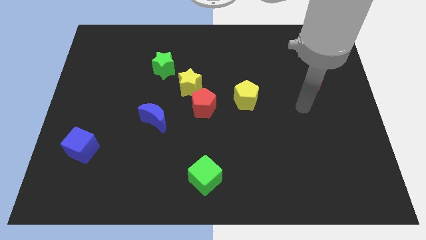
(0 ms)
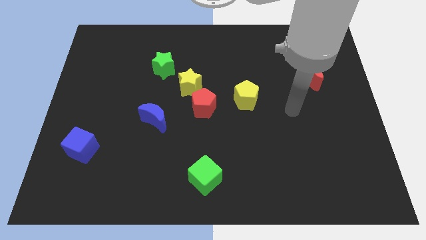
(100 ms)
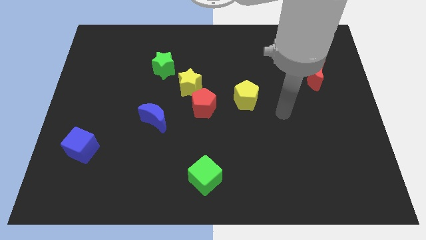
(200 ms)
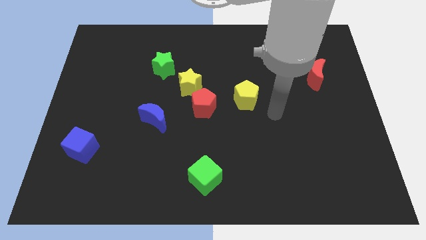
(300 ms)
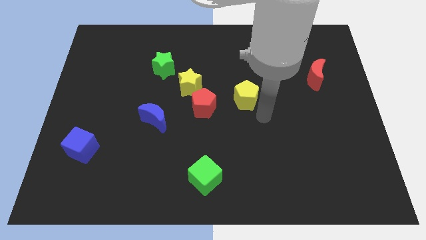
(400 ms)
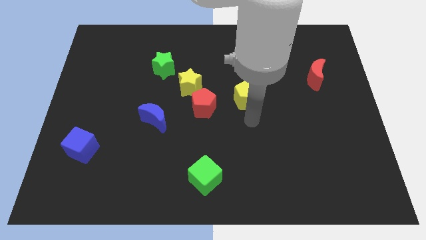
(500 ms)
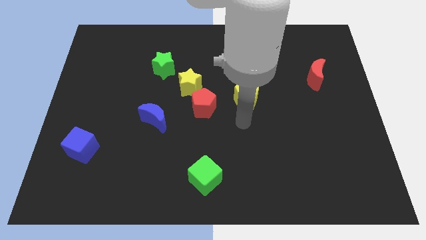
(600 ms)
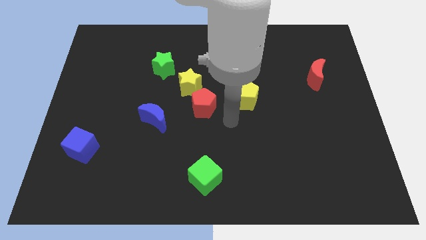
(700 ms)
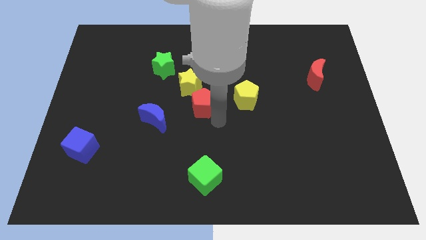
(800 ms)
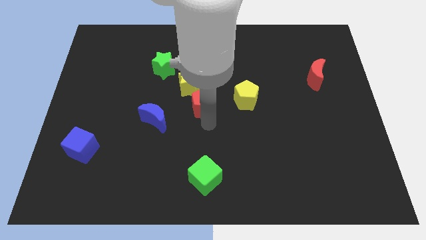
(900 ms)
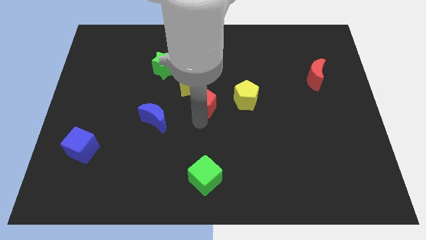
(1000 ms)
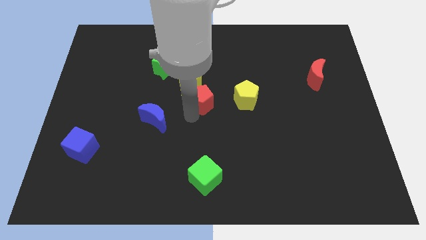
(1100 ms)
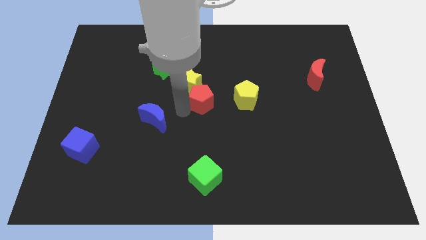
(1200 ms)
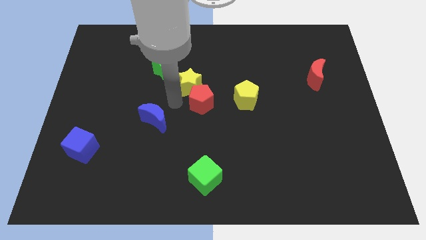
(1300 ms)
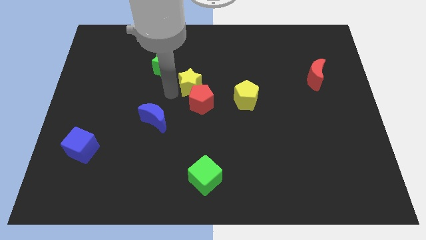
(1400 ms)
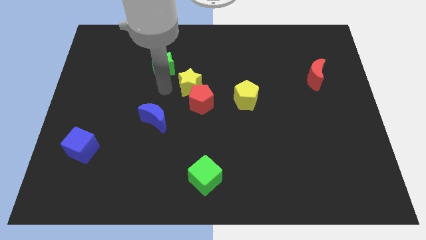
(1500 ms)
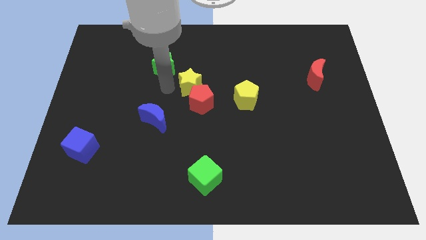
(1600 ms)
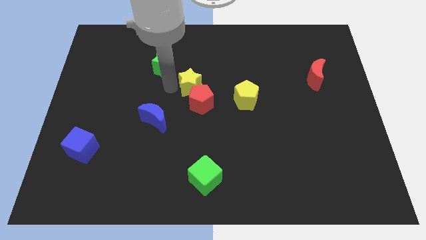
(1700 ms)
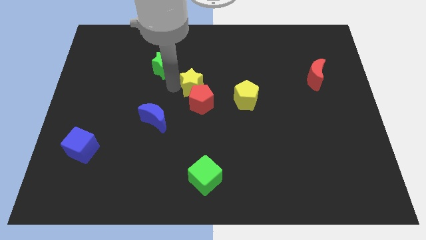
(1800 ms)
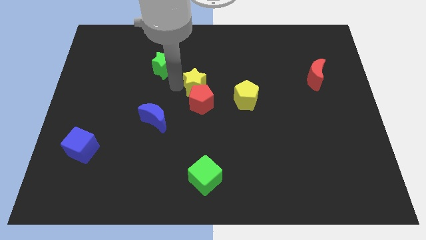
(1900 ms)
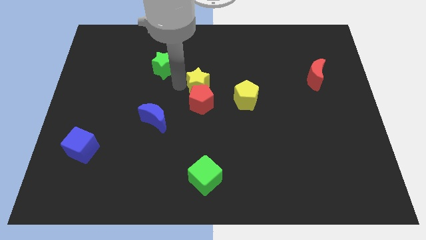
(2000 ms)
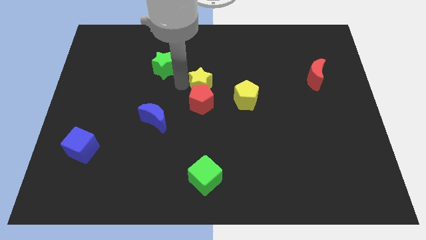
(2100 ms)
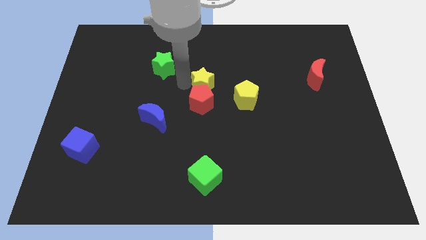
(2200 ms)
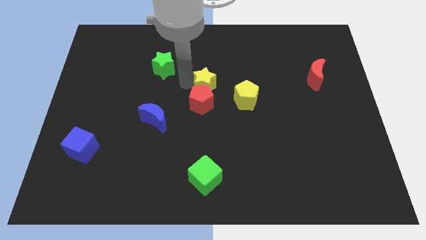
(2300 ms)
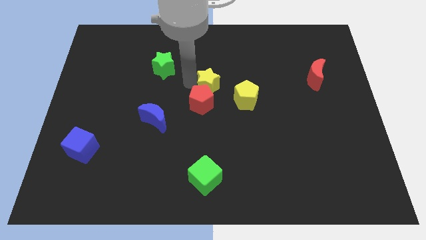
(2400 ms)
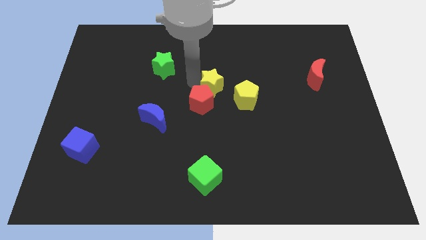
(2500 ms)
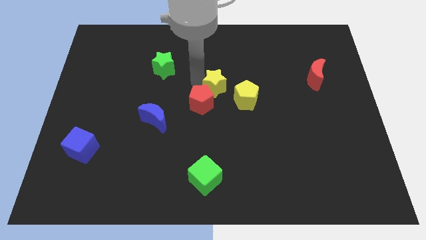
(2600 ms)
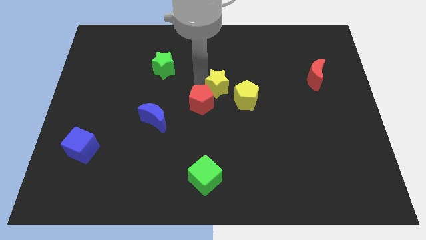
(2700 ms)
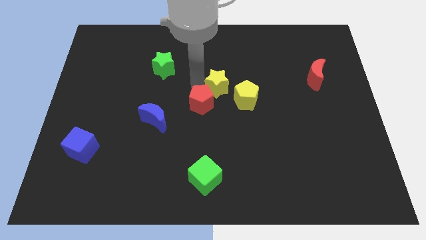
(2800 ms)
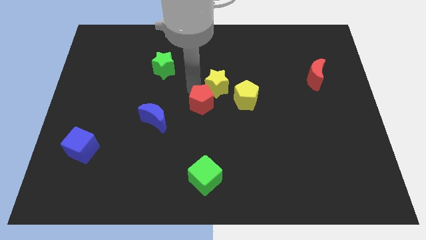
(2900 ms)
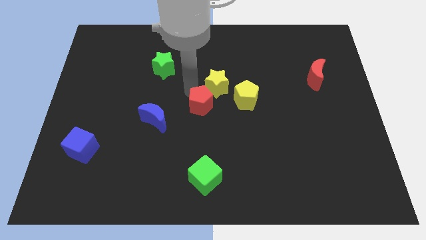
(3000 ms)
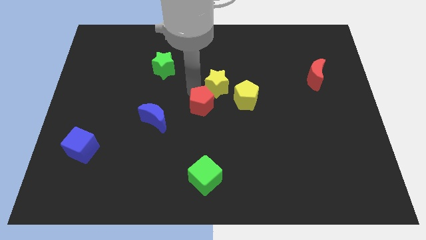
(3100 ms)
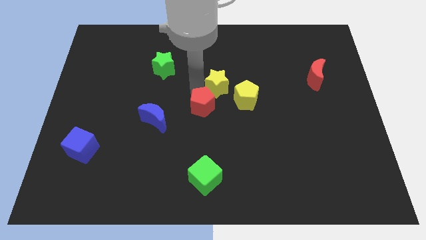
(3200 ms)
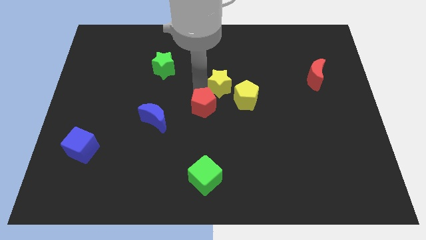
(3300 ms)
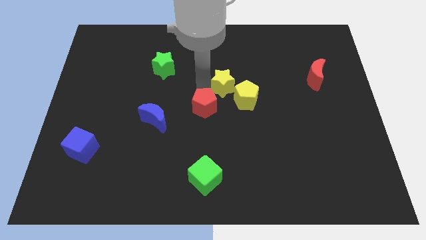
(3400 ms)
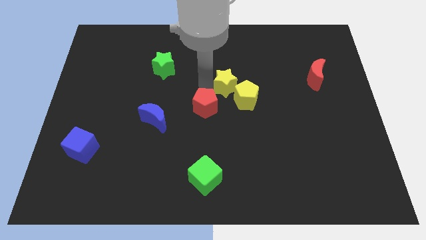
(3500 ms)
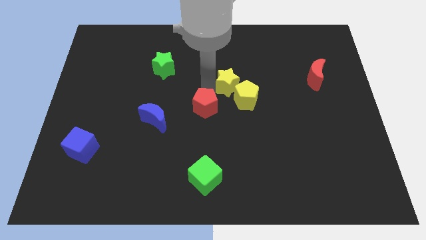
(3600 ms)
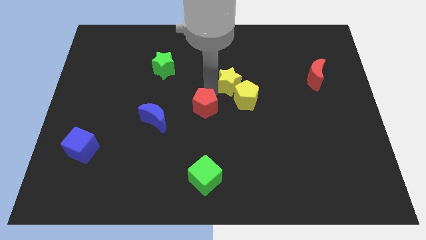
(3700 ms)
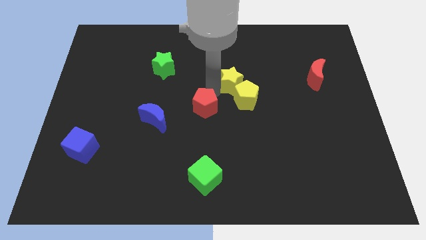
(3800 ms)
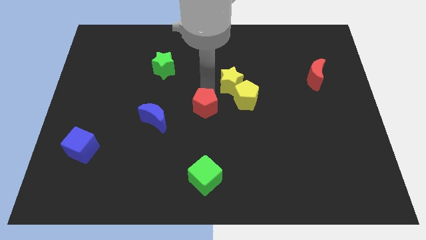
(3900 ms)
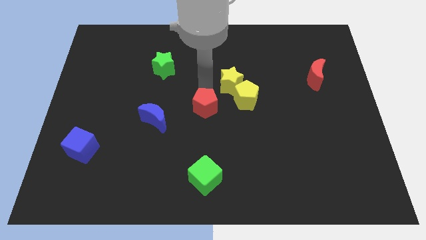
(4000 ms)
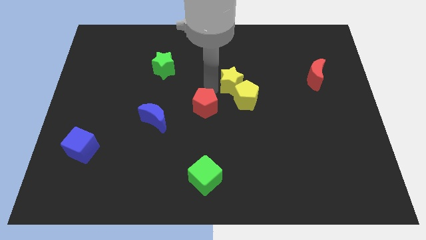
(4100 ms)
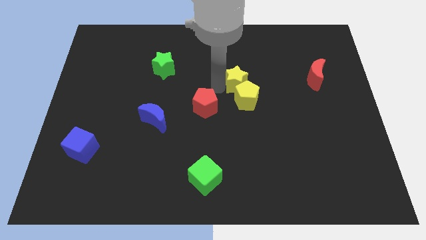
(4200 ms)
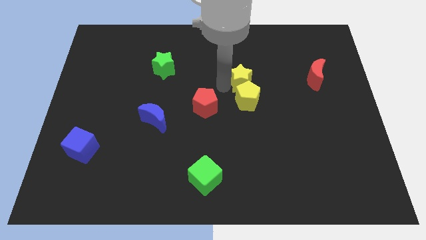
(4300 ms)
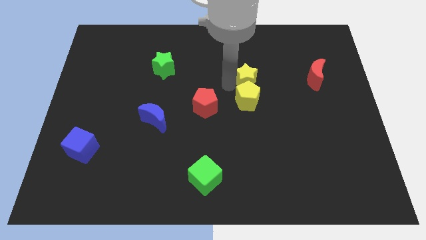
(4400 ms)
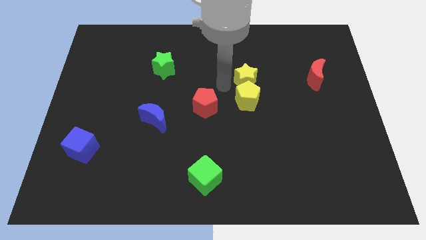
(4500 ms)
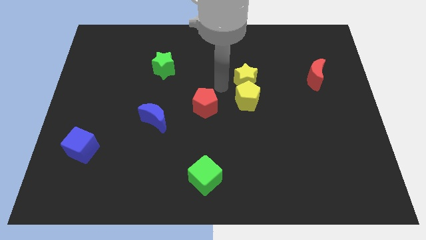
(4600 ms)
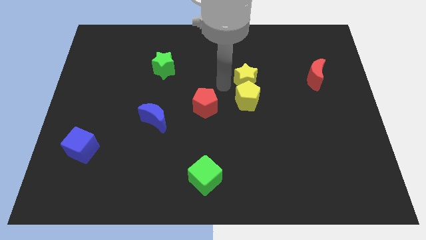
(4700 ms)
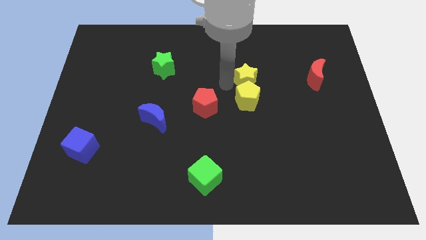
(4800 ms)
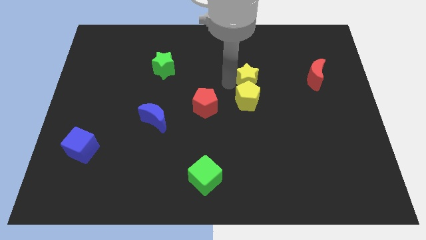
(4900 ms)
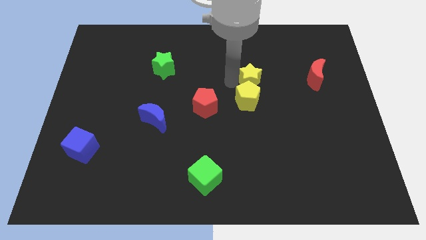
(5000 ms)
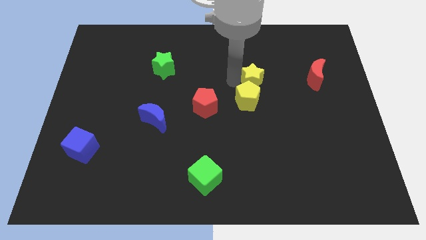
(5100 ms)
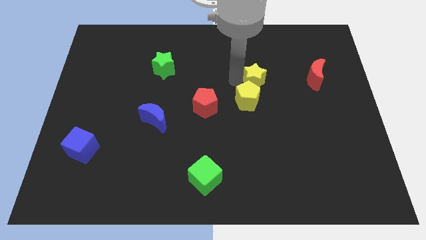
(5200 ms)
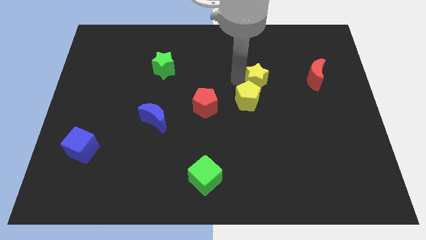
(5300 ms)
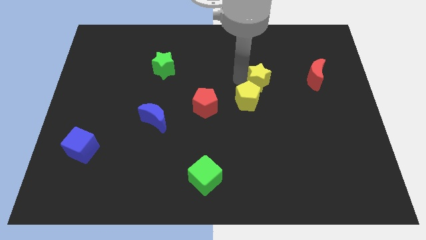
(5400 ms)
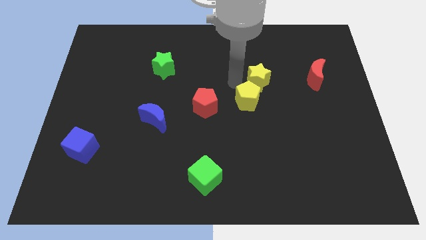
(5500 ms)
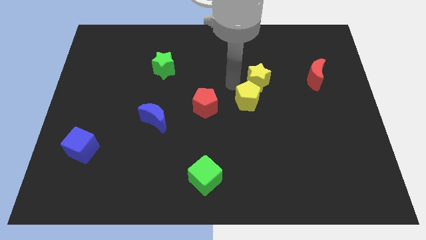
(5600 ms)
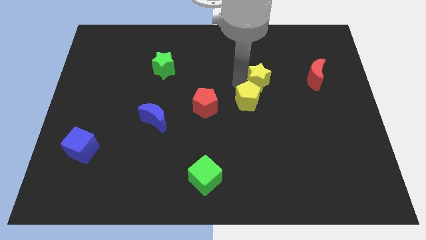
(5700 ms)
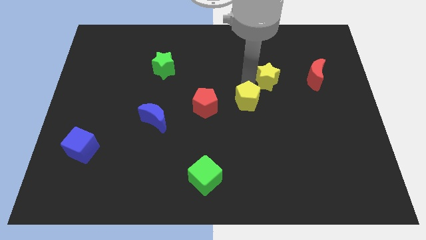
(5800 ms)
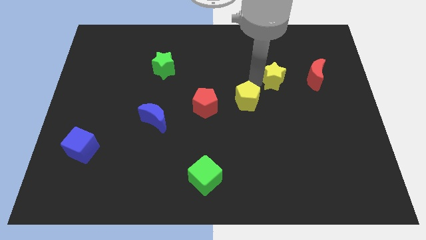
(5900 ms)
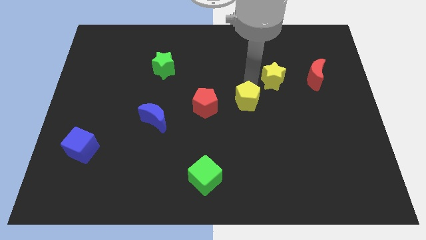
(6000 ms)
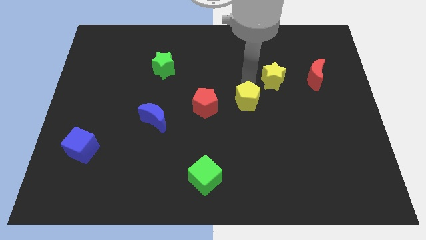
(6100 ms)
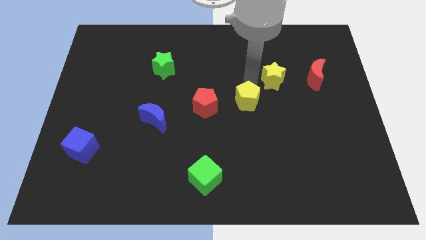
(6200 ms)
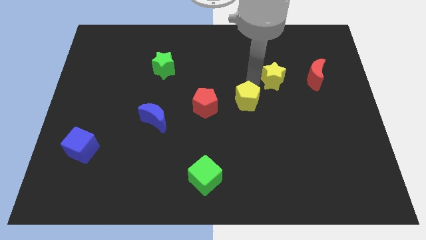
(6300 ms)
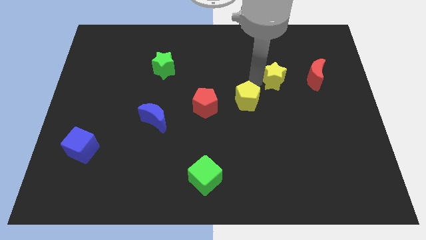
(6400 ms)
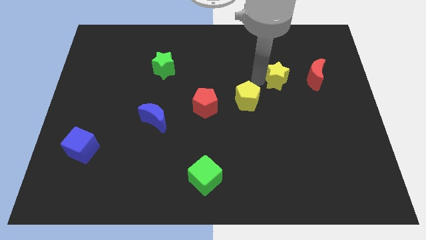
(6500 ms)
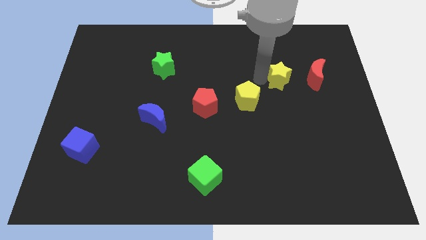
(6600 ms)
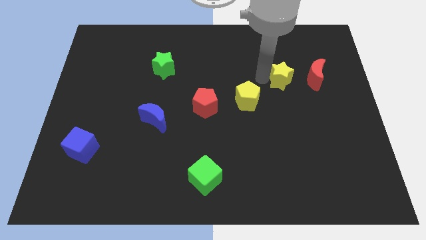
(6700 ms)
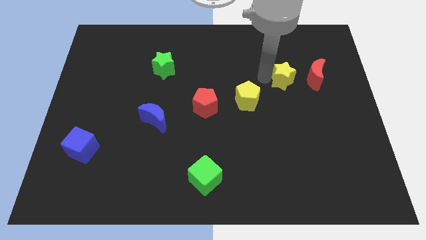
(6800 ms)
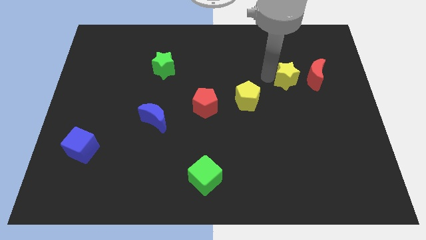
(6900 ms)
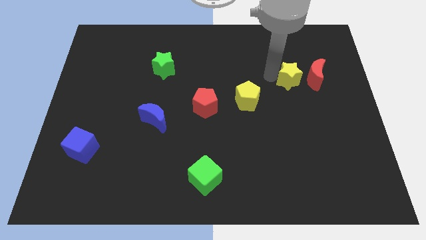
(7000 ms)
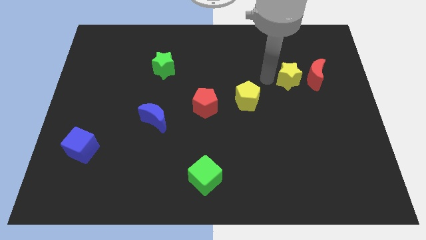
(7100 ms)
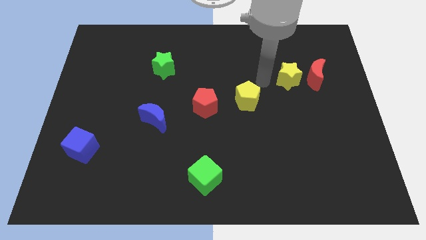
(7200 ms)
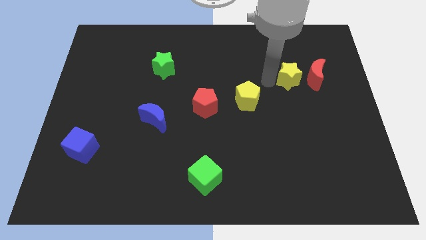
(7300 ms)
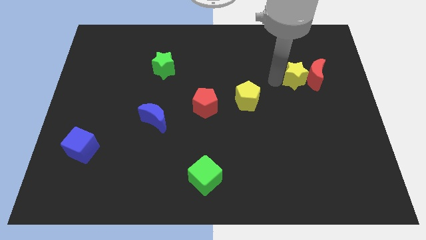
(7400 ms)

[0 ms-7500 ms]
move the yellow star towards the red moon
